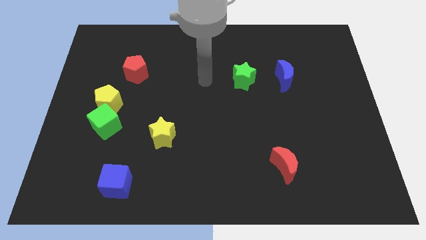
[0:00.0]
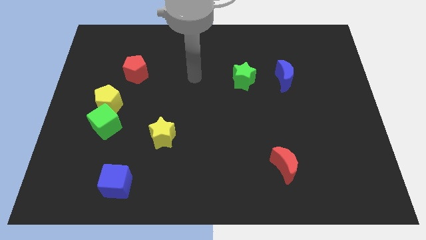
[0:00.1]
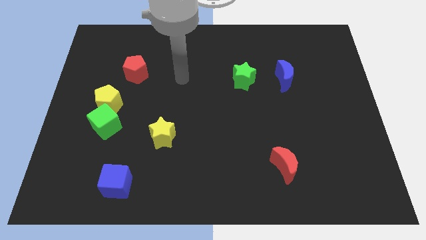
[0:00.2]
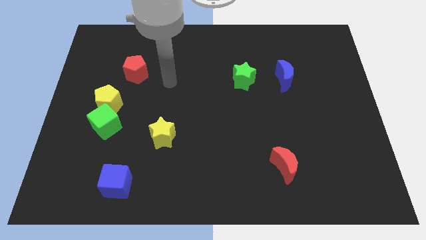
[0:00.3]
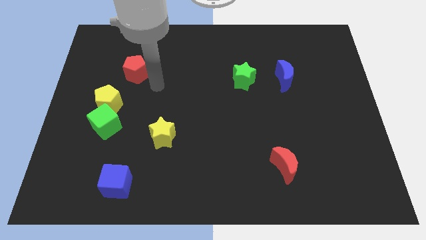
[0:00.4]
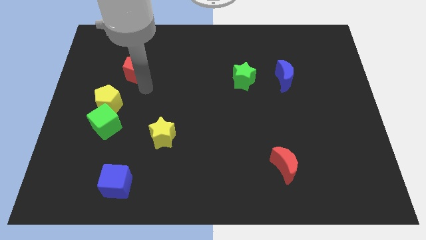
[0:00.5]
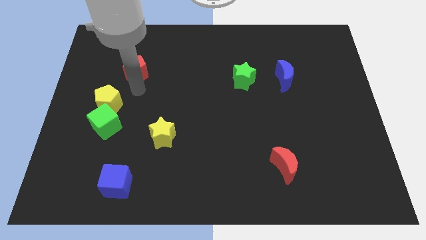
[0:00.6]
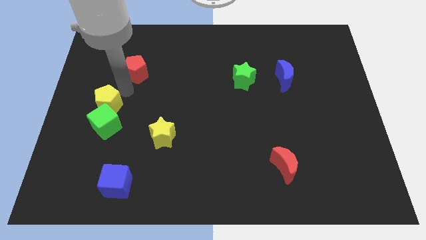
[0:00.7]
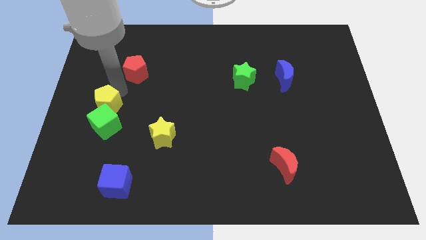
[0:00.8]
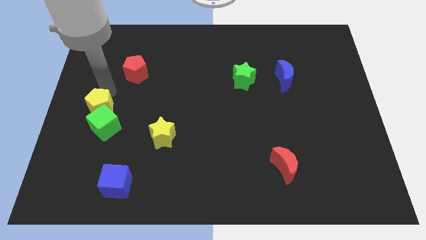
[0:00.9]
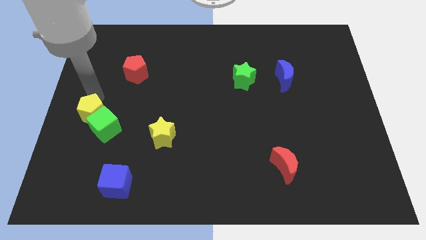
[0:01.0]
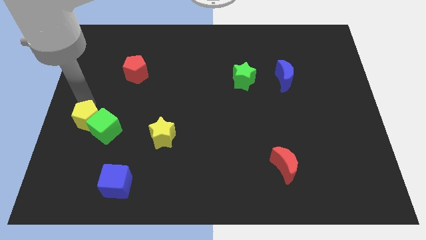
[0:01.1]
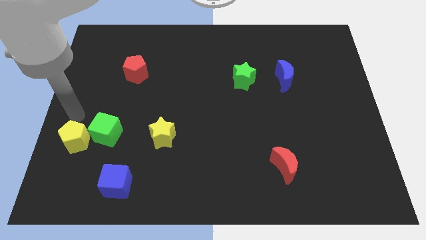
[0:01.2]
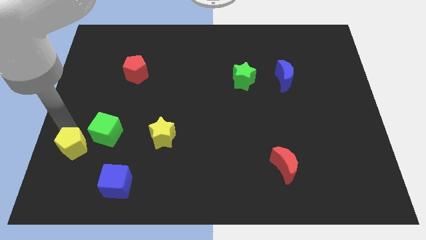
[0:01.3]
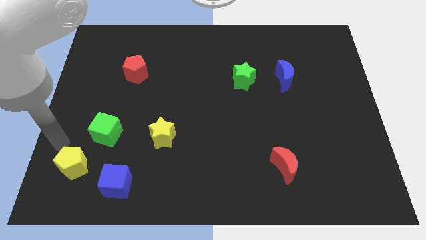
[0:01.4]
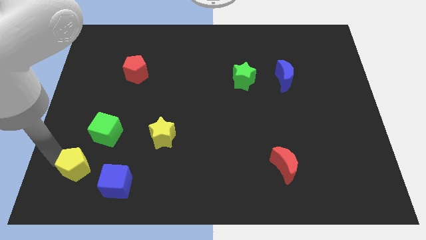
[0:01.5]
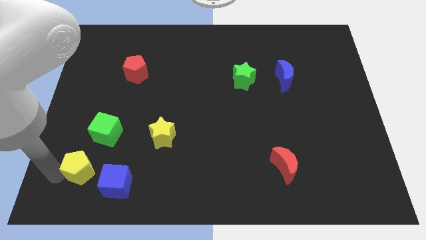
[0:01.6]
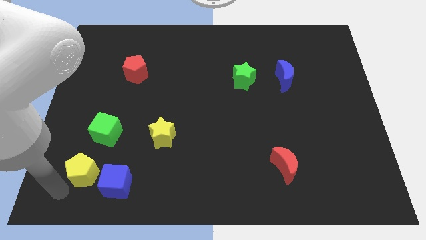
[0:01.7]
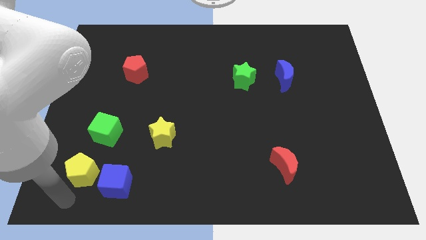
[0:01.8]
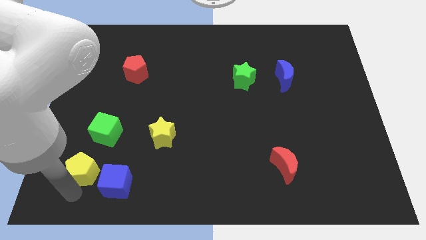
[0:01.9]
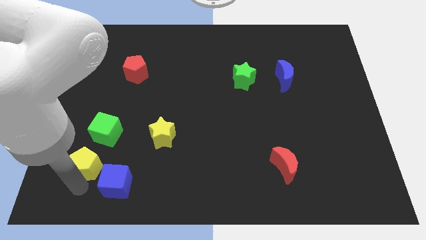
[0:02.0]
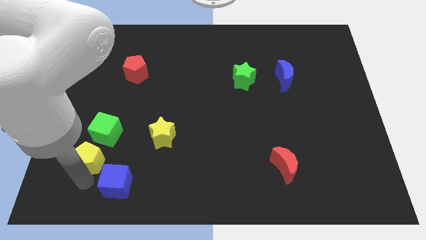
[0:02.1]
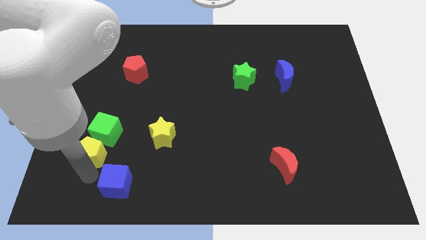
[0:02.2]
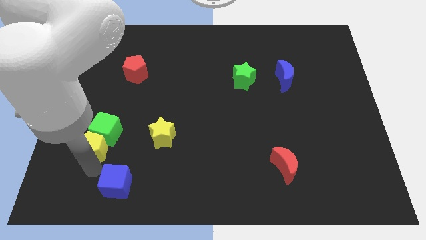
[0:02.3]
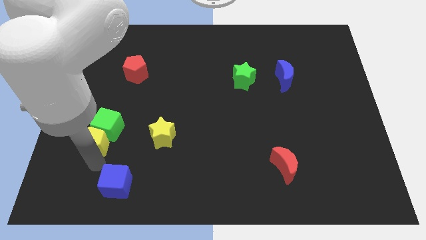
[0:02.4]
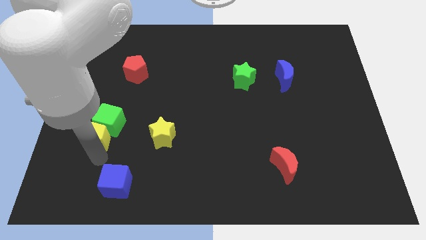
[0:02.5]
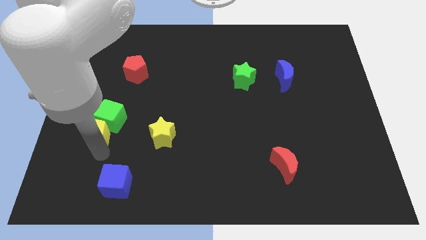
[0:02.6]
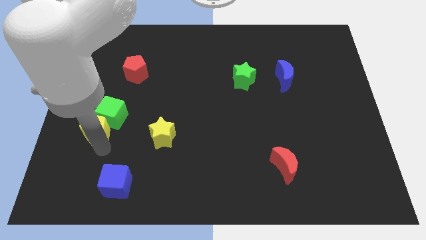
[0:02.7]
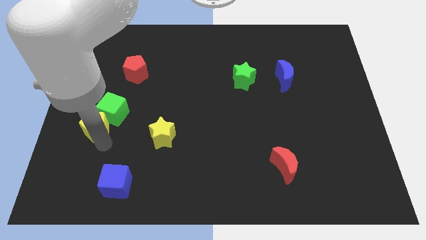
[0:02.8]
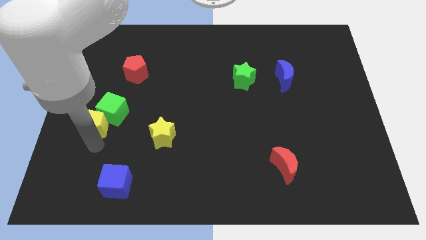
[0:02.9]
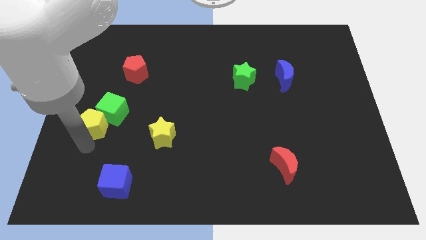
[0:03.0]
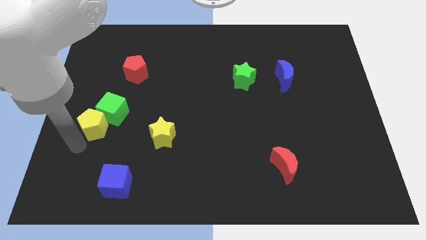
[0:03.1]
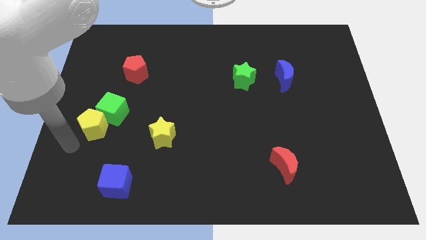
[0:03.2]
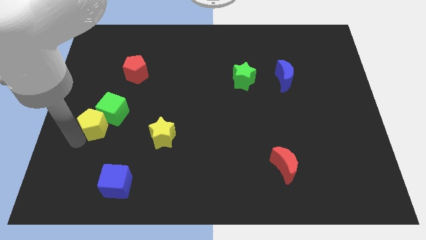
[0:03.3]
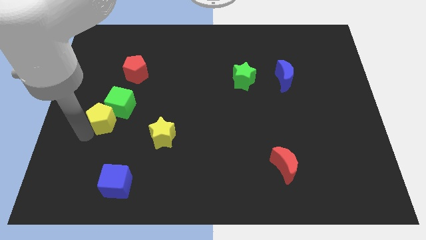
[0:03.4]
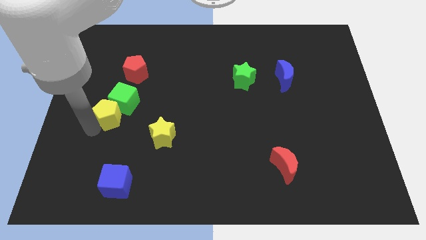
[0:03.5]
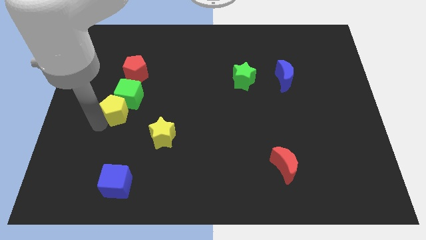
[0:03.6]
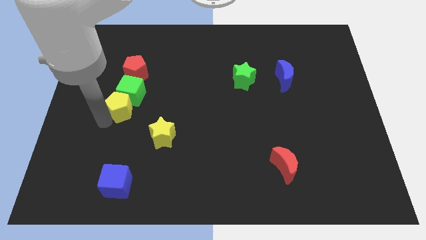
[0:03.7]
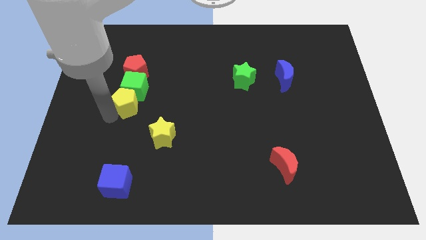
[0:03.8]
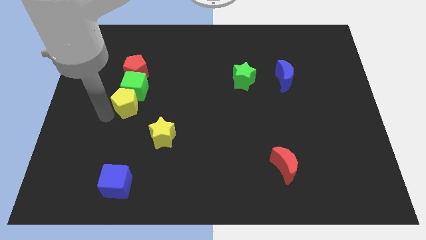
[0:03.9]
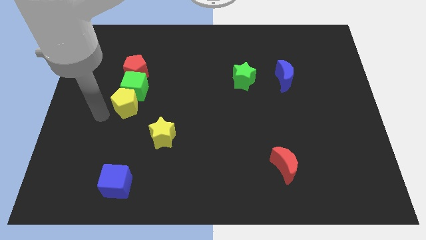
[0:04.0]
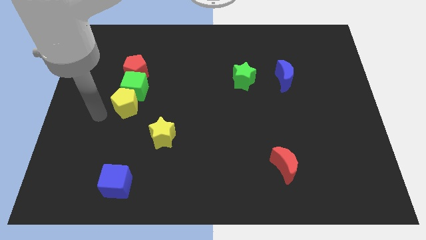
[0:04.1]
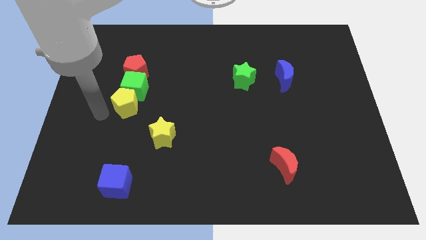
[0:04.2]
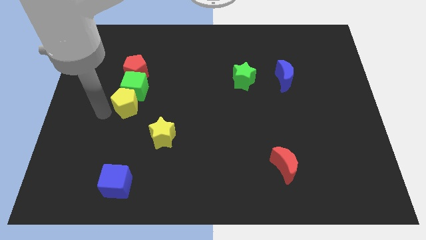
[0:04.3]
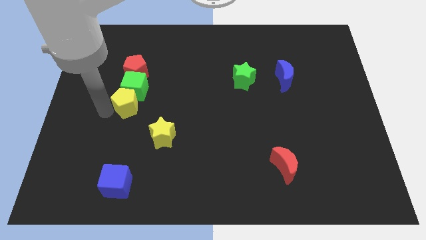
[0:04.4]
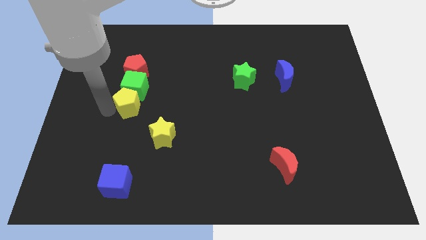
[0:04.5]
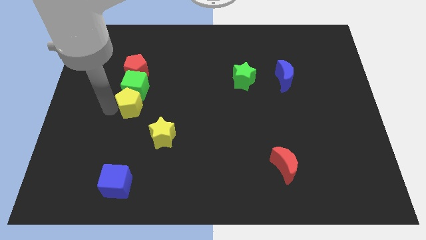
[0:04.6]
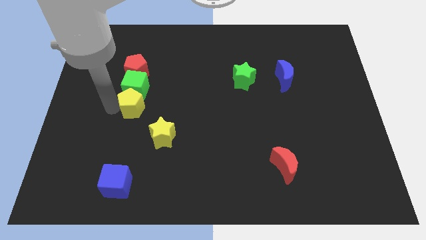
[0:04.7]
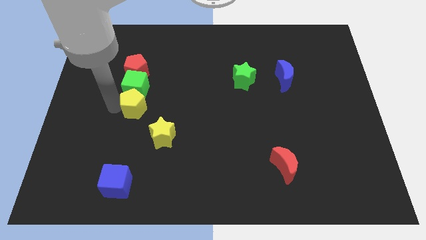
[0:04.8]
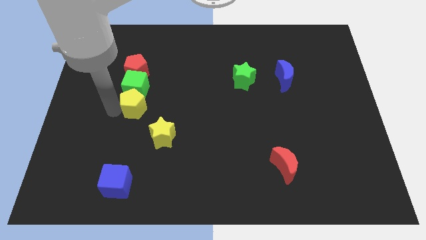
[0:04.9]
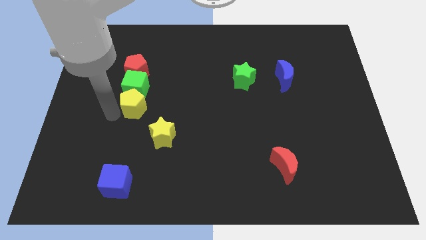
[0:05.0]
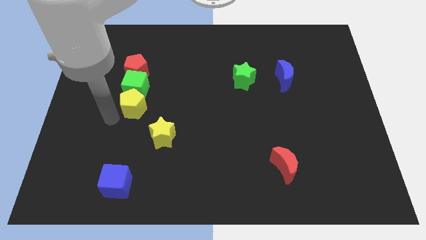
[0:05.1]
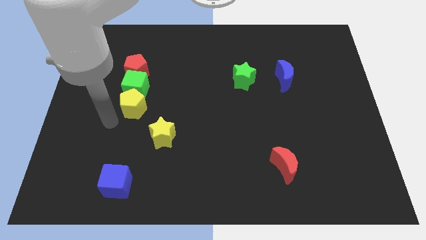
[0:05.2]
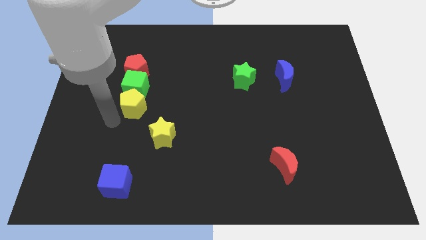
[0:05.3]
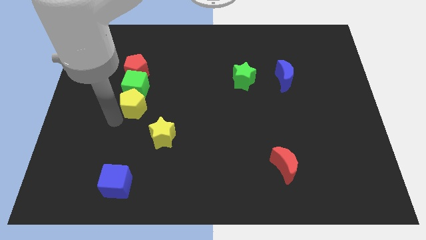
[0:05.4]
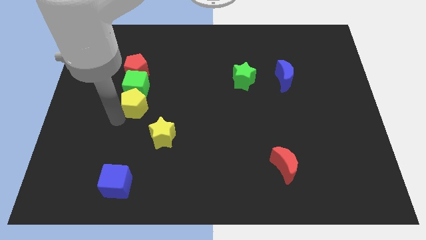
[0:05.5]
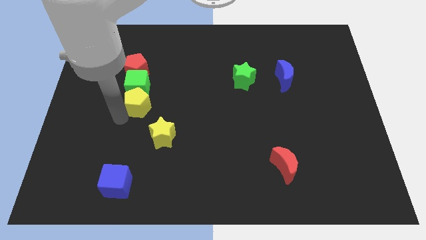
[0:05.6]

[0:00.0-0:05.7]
move the yellow pentagon a little to the right

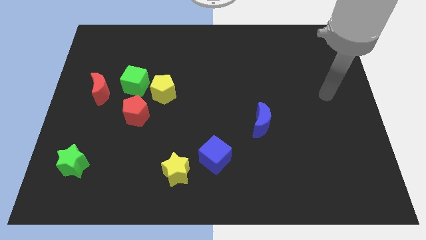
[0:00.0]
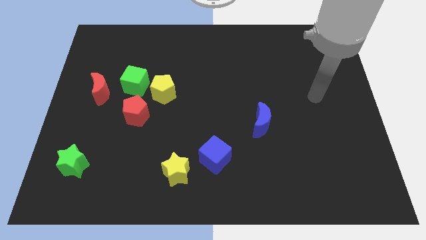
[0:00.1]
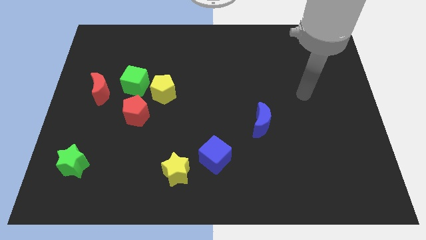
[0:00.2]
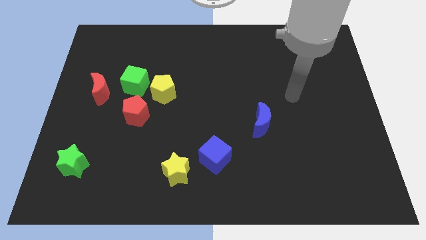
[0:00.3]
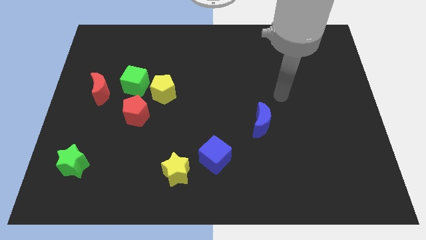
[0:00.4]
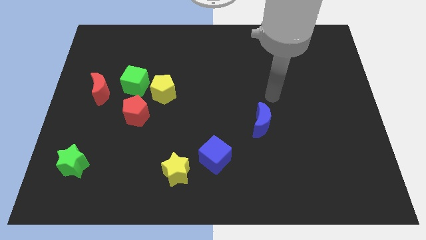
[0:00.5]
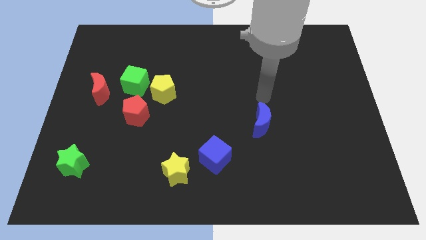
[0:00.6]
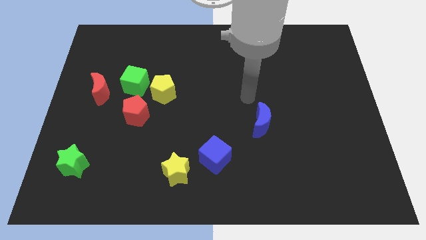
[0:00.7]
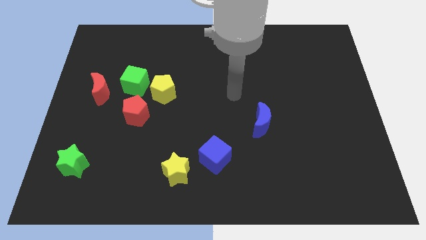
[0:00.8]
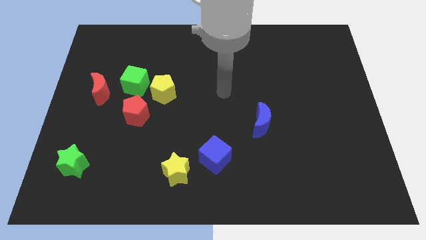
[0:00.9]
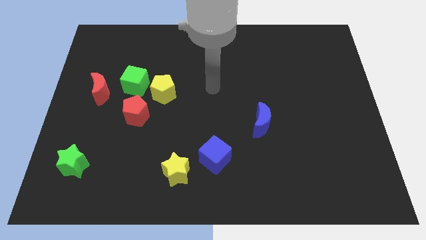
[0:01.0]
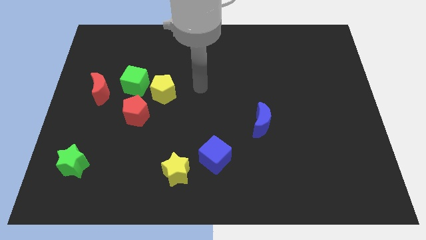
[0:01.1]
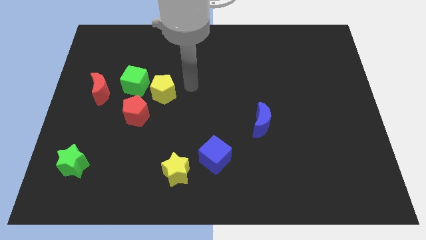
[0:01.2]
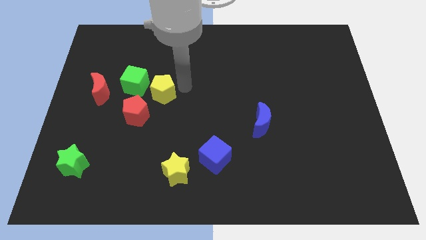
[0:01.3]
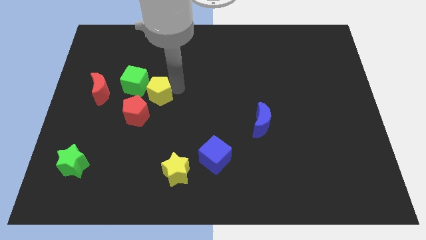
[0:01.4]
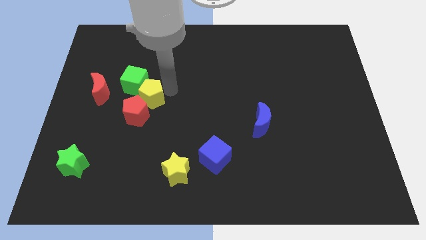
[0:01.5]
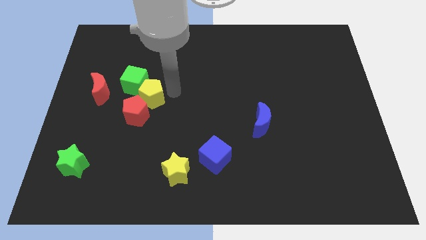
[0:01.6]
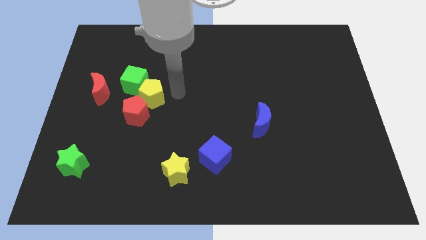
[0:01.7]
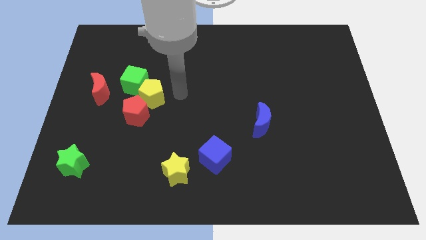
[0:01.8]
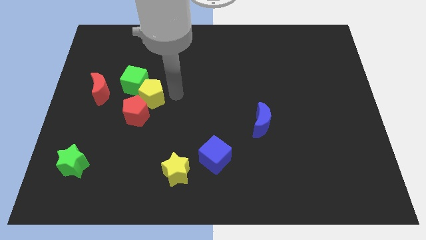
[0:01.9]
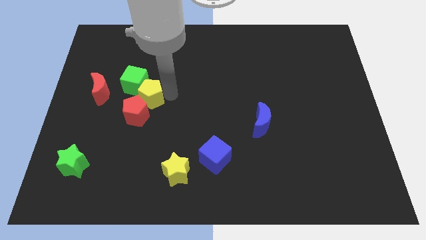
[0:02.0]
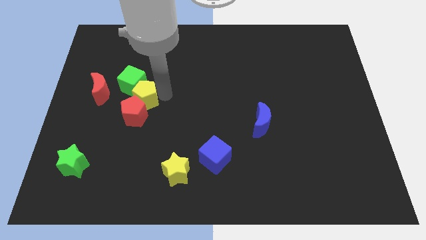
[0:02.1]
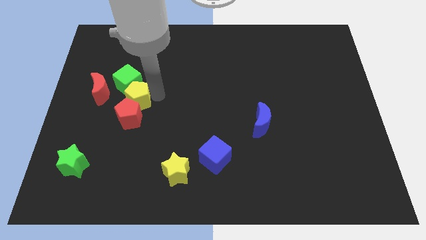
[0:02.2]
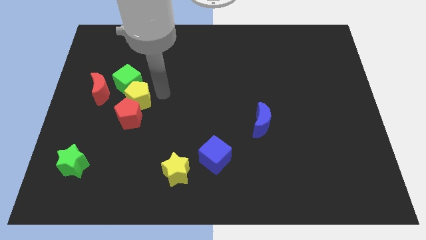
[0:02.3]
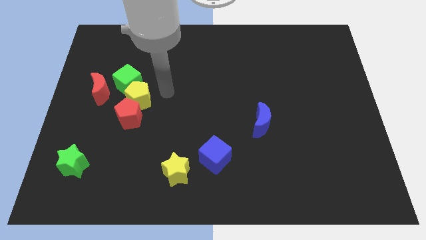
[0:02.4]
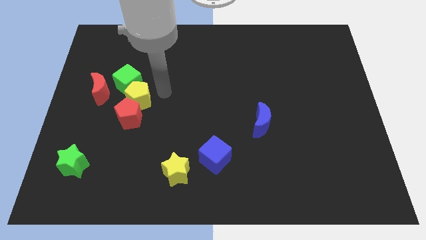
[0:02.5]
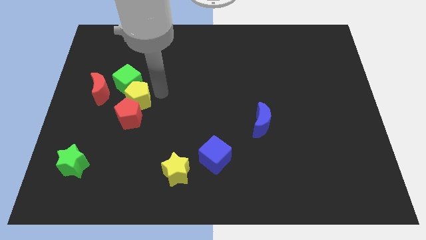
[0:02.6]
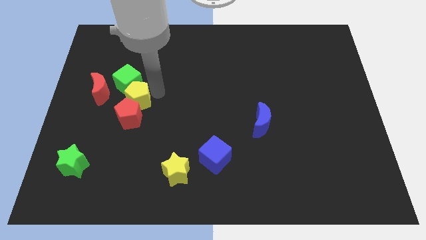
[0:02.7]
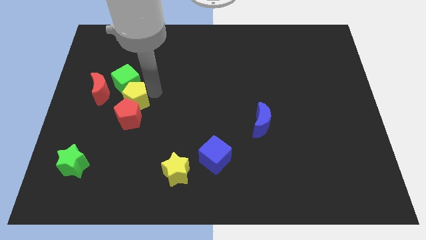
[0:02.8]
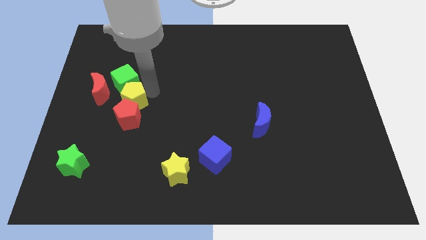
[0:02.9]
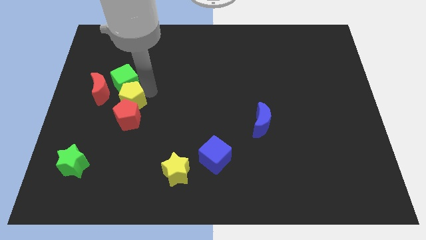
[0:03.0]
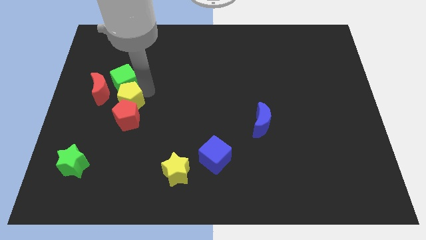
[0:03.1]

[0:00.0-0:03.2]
slightly push the yellow pentagon down and to the left
